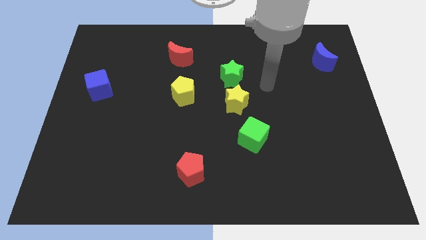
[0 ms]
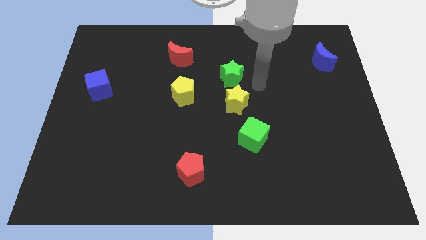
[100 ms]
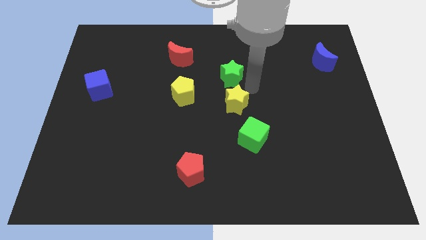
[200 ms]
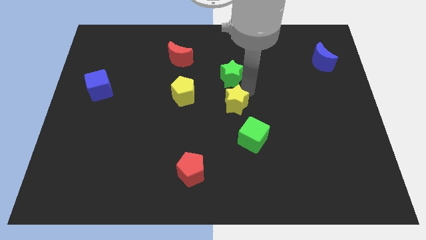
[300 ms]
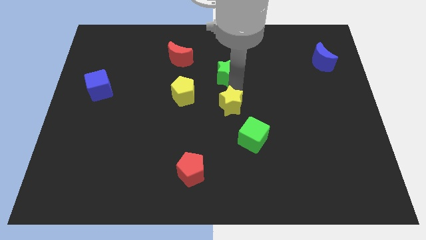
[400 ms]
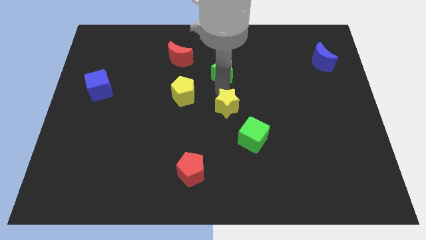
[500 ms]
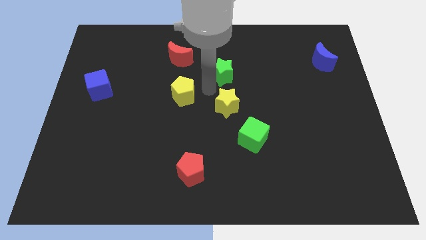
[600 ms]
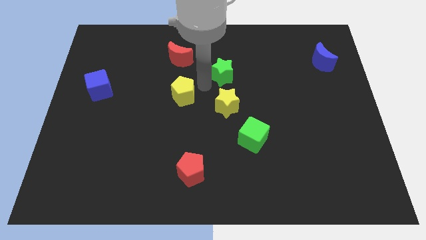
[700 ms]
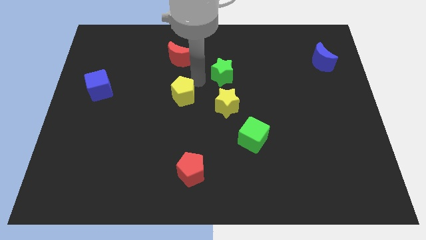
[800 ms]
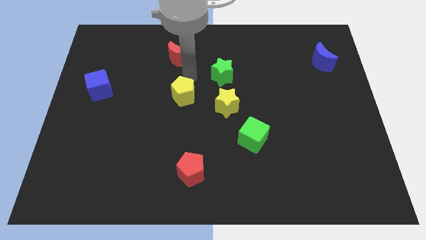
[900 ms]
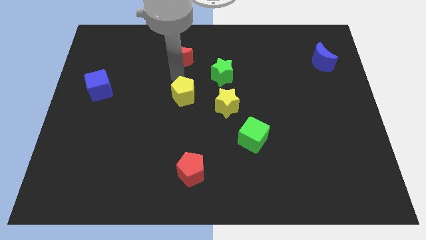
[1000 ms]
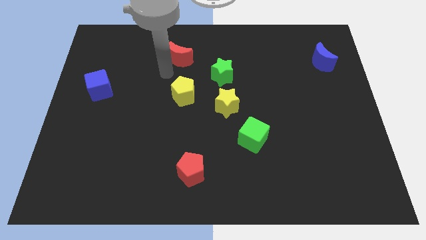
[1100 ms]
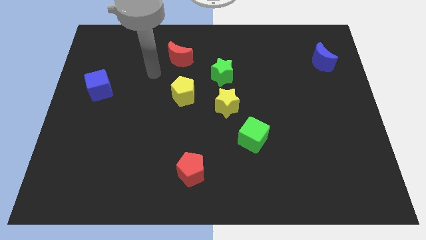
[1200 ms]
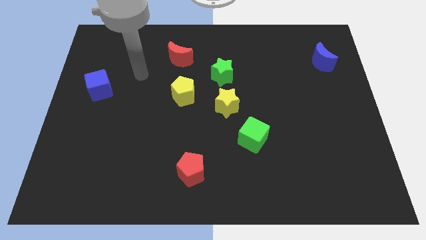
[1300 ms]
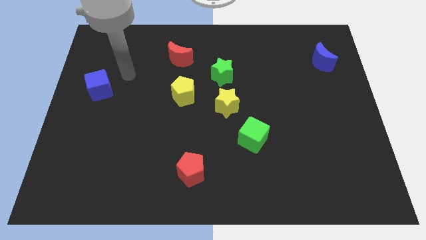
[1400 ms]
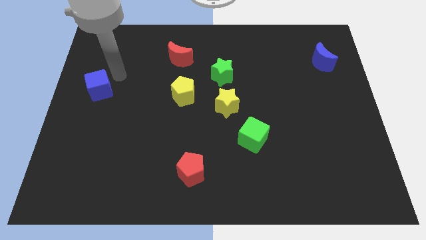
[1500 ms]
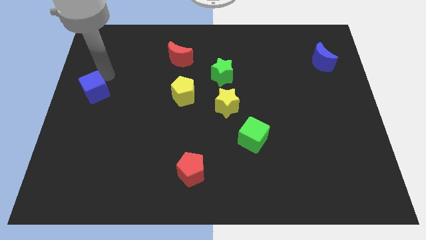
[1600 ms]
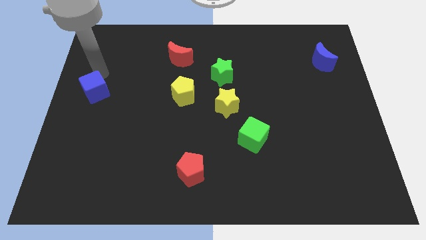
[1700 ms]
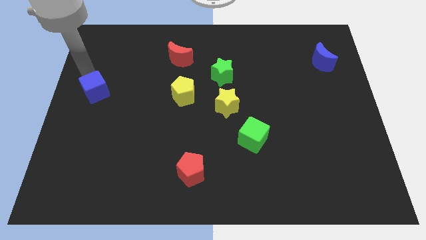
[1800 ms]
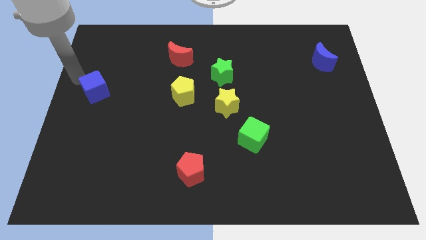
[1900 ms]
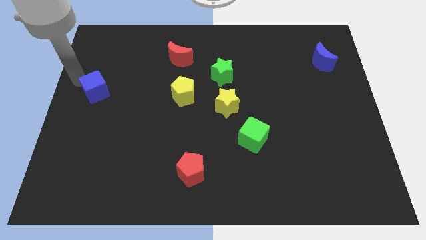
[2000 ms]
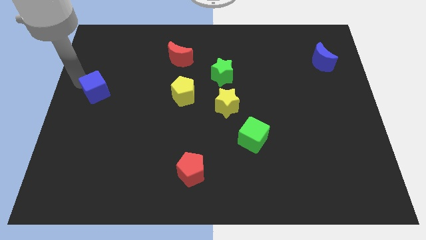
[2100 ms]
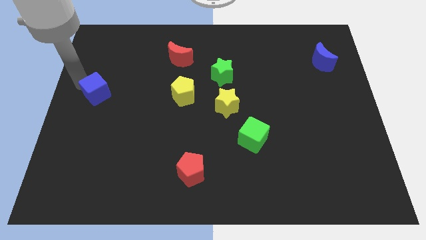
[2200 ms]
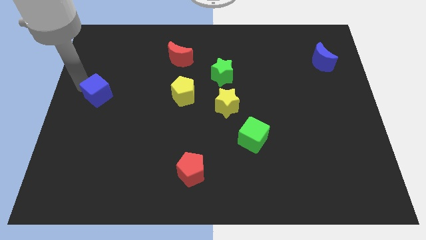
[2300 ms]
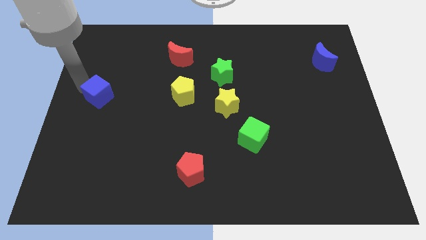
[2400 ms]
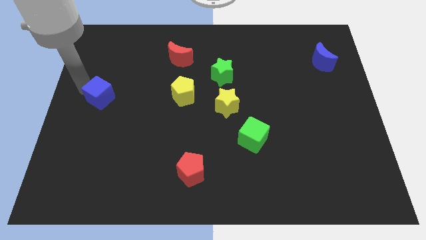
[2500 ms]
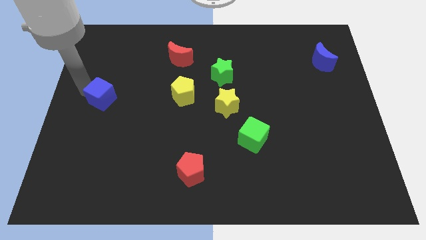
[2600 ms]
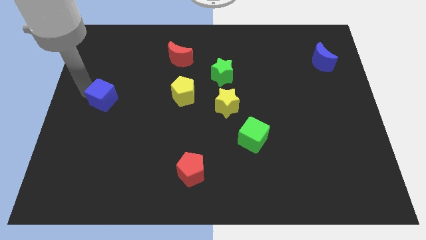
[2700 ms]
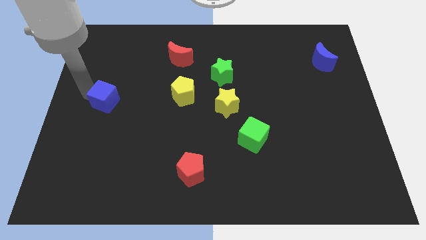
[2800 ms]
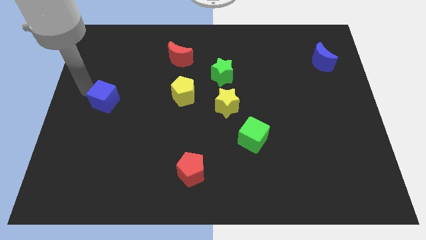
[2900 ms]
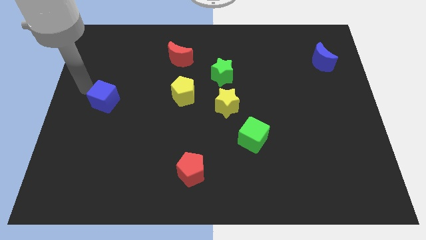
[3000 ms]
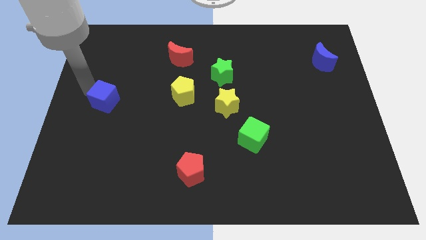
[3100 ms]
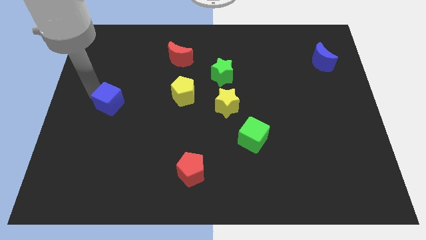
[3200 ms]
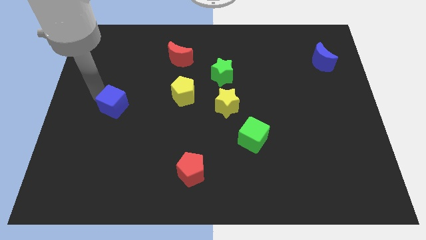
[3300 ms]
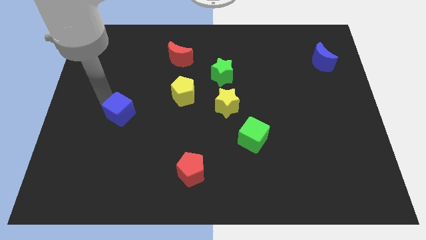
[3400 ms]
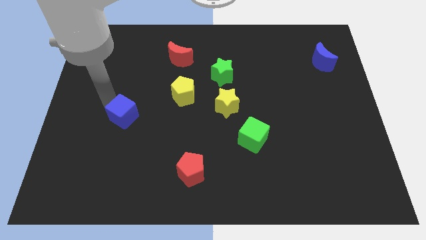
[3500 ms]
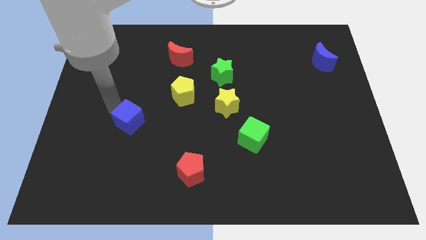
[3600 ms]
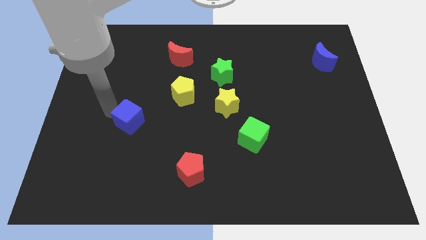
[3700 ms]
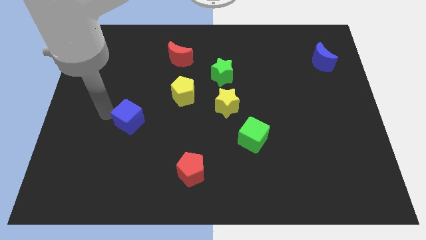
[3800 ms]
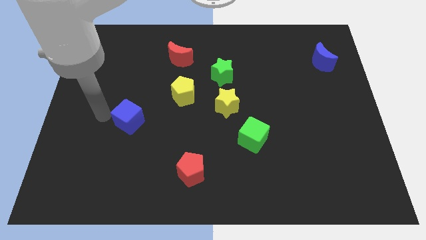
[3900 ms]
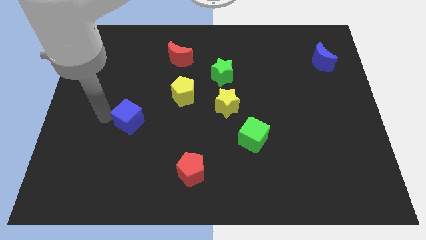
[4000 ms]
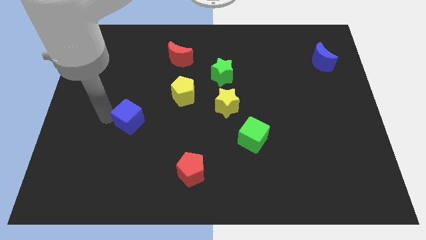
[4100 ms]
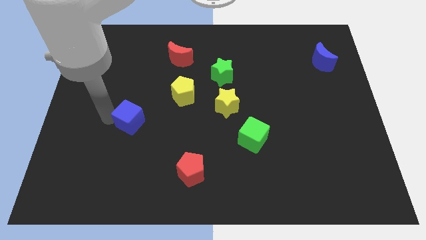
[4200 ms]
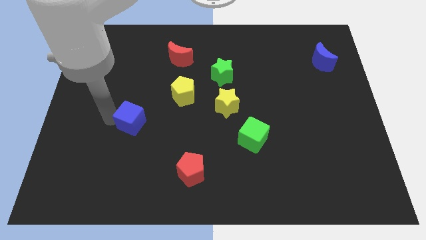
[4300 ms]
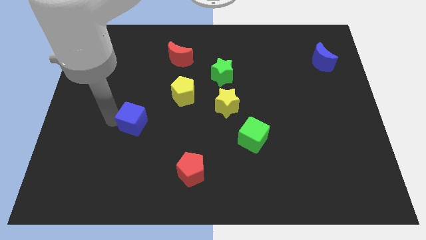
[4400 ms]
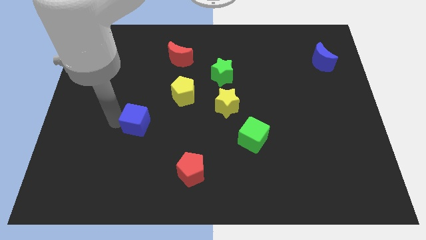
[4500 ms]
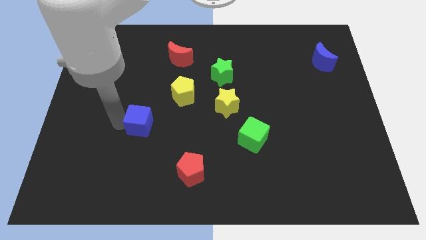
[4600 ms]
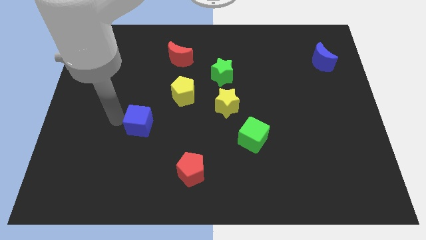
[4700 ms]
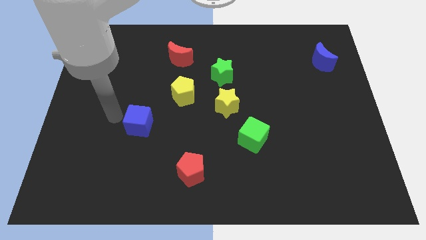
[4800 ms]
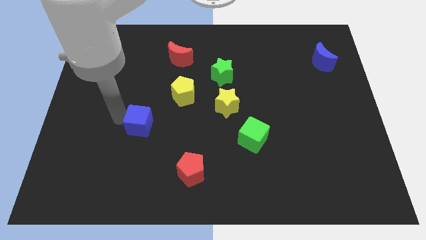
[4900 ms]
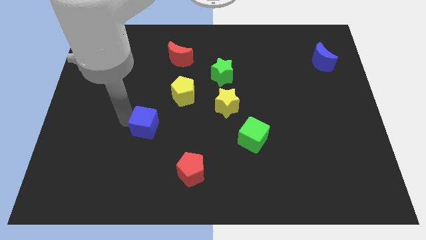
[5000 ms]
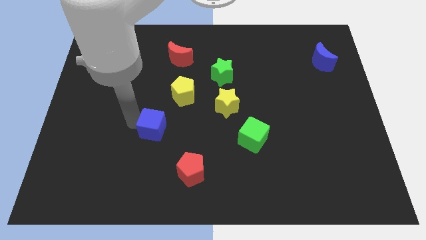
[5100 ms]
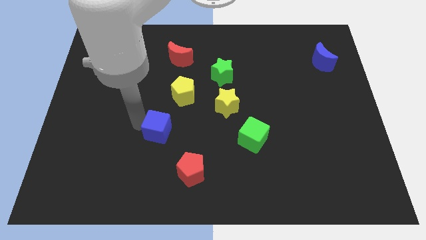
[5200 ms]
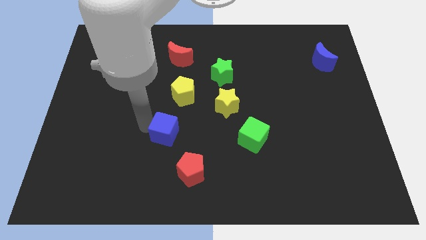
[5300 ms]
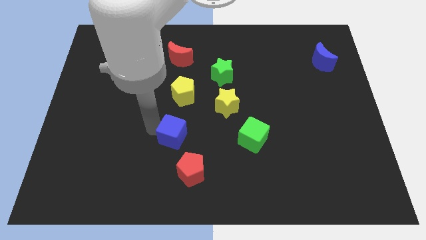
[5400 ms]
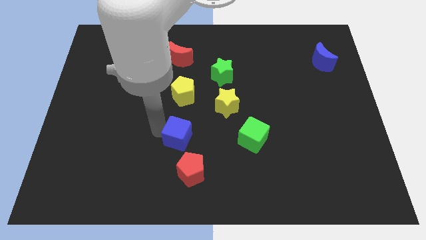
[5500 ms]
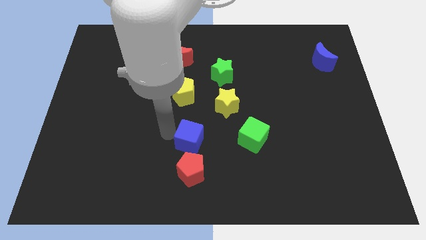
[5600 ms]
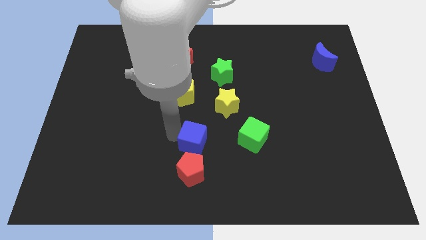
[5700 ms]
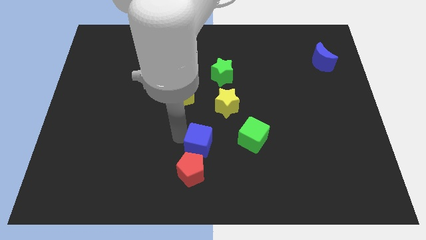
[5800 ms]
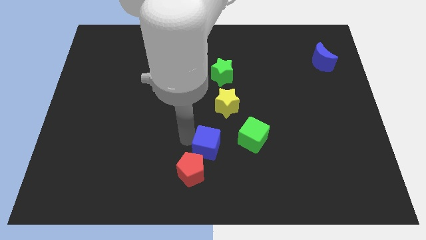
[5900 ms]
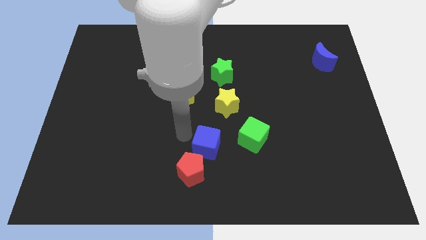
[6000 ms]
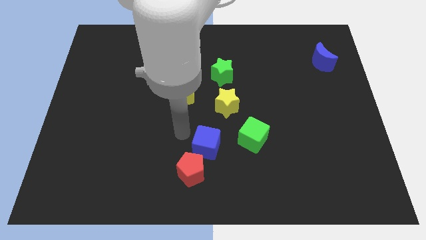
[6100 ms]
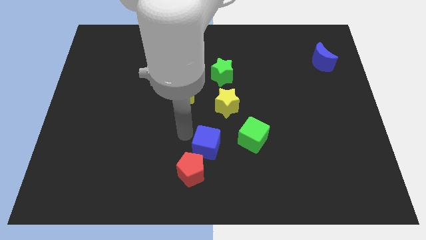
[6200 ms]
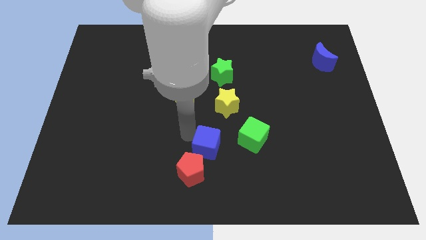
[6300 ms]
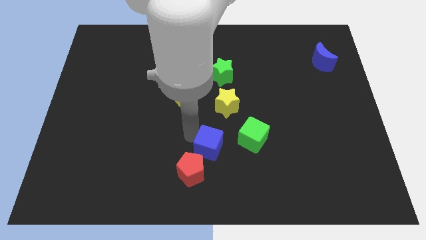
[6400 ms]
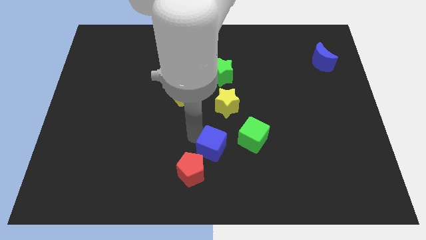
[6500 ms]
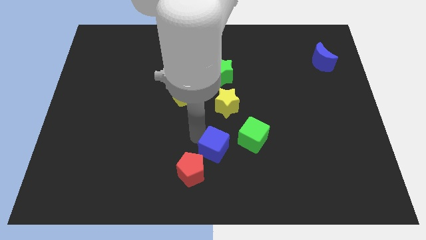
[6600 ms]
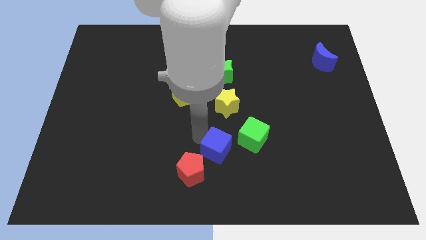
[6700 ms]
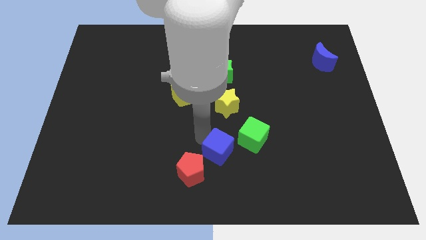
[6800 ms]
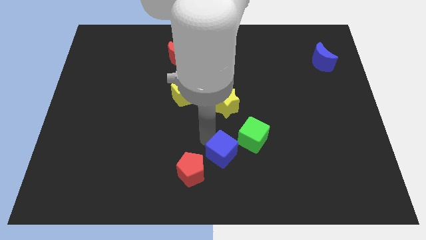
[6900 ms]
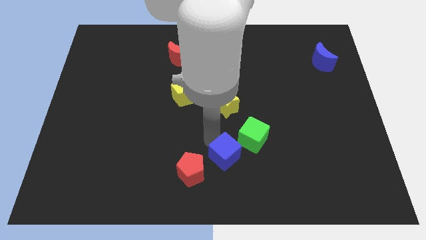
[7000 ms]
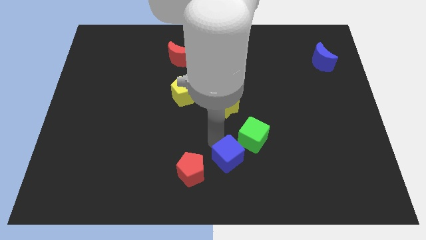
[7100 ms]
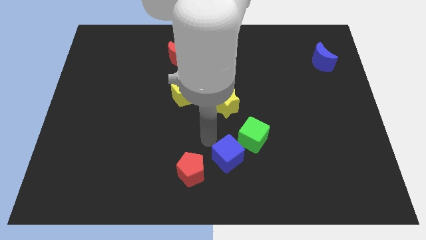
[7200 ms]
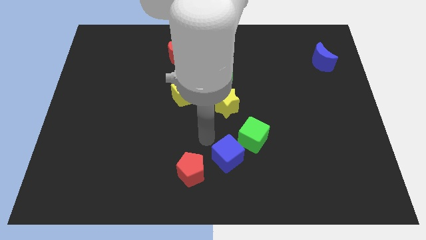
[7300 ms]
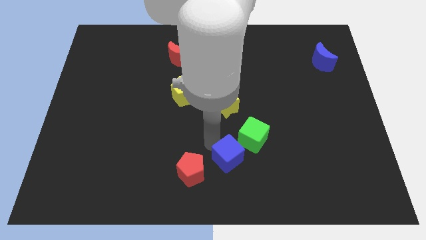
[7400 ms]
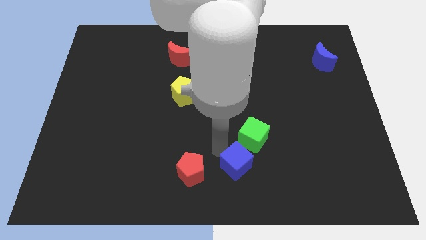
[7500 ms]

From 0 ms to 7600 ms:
push the blue cube below the green cube
